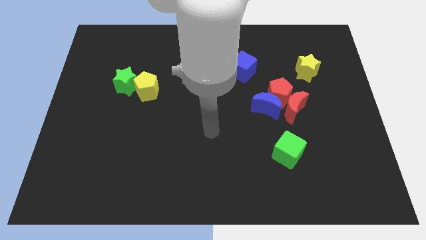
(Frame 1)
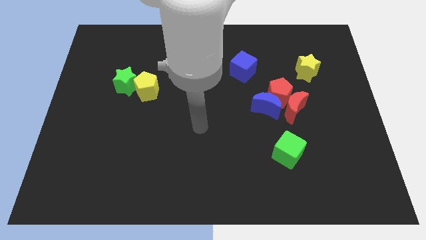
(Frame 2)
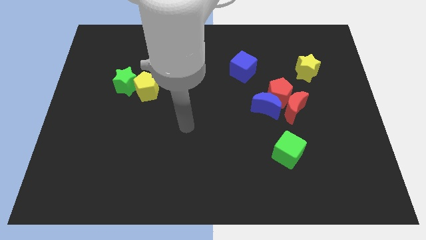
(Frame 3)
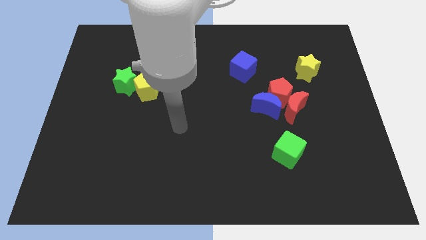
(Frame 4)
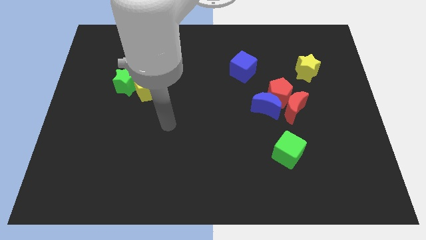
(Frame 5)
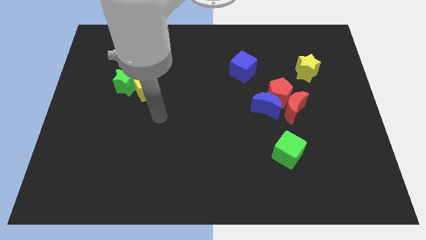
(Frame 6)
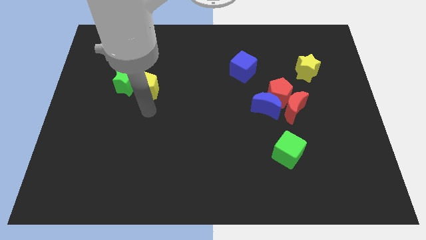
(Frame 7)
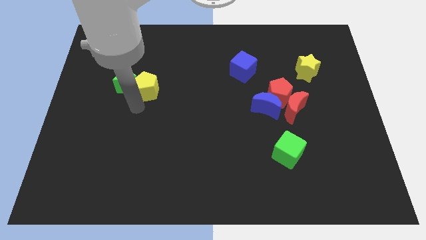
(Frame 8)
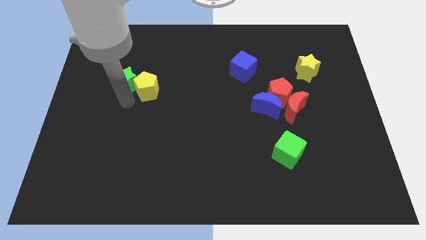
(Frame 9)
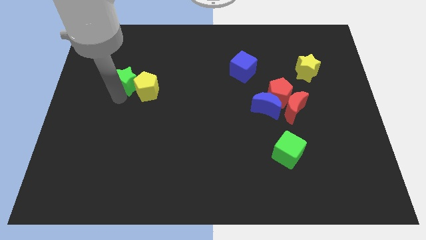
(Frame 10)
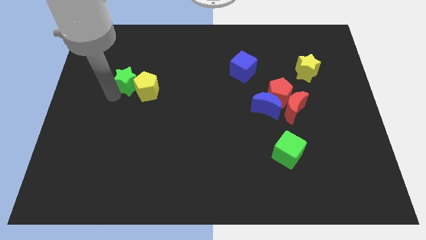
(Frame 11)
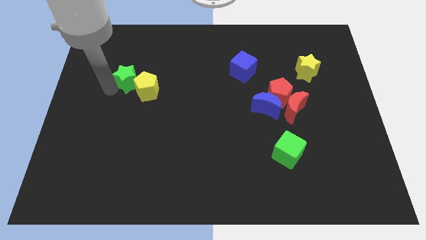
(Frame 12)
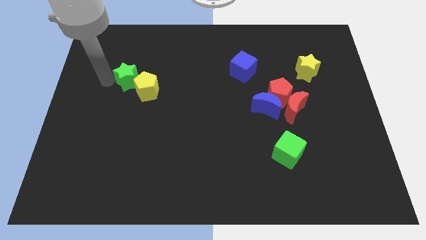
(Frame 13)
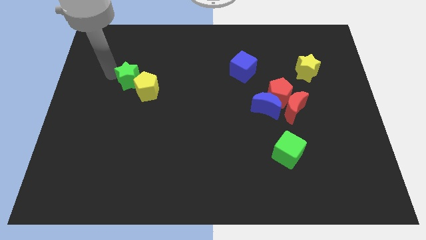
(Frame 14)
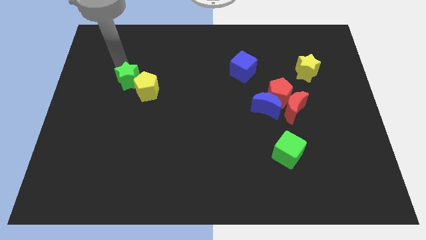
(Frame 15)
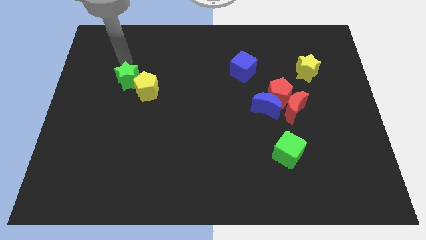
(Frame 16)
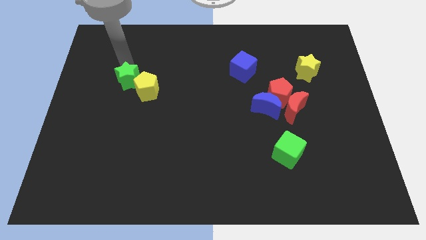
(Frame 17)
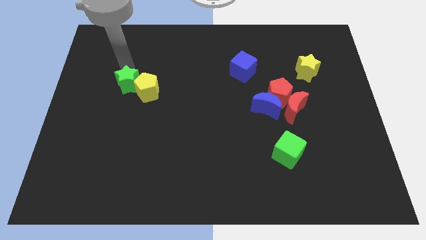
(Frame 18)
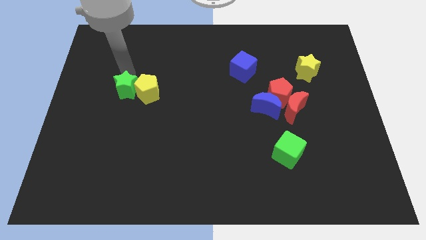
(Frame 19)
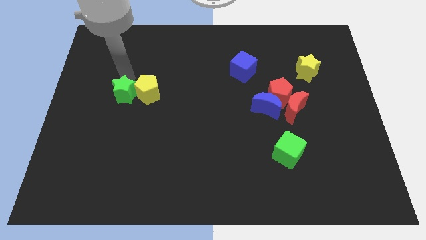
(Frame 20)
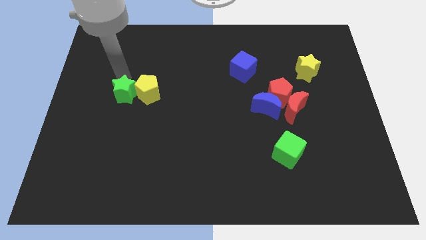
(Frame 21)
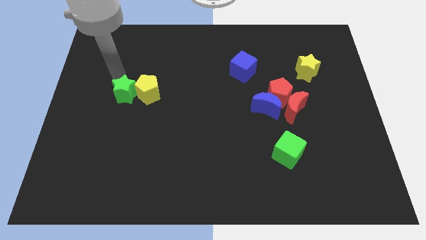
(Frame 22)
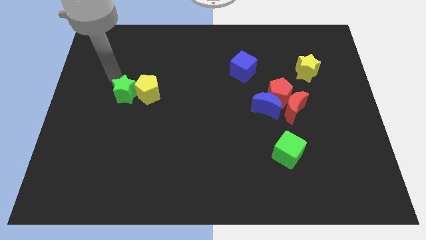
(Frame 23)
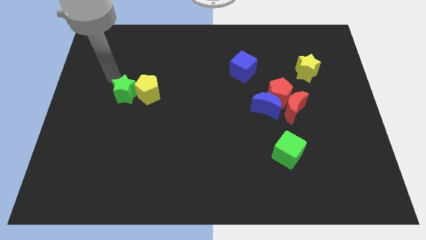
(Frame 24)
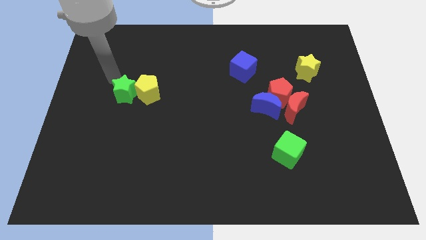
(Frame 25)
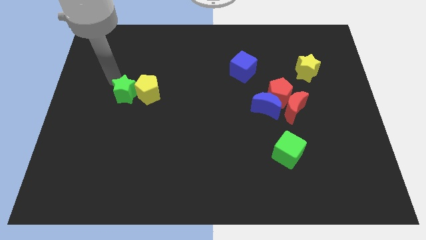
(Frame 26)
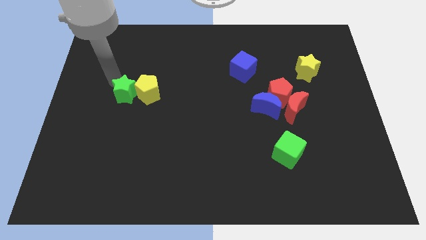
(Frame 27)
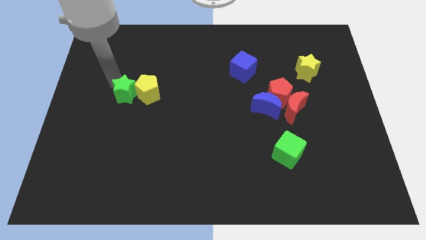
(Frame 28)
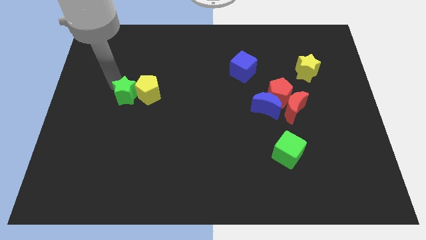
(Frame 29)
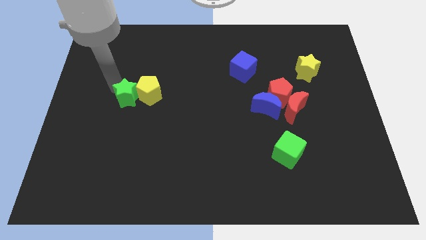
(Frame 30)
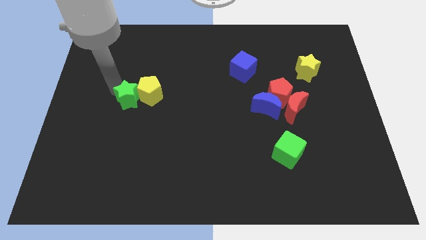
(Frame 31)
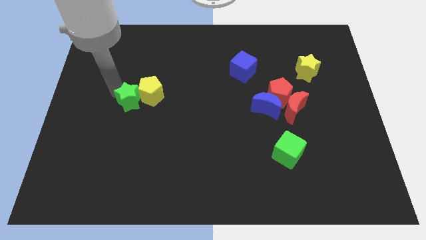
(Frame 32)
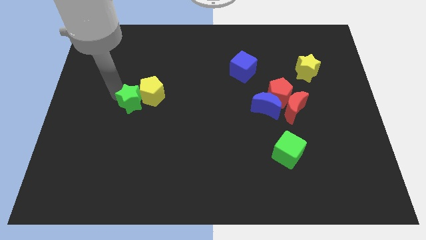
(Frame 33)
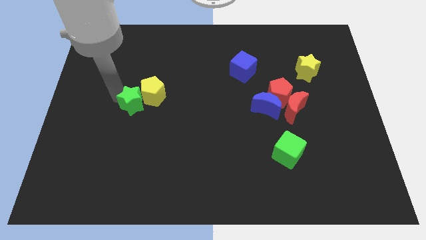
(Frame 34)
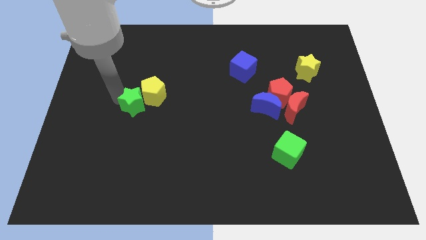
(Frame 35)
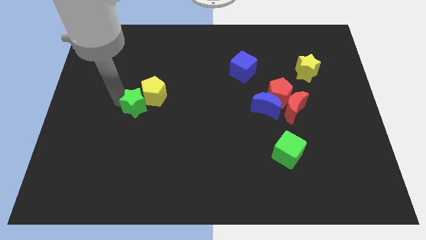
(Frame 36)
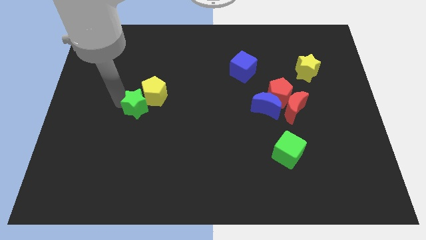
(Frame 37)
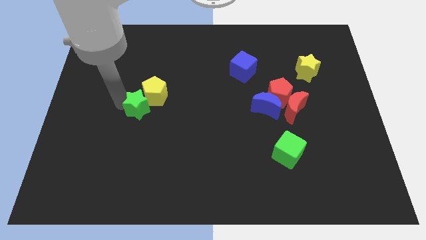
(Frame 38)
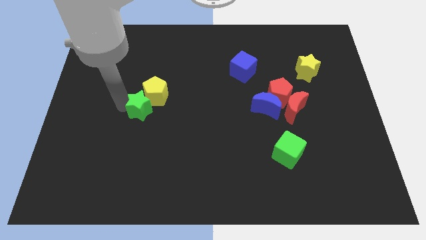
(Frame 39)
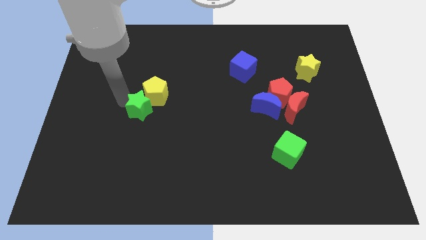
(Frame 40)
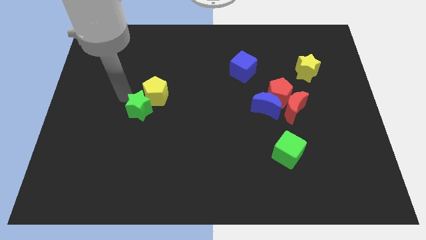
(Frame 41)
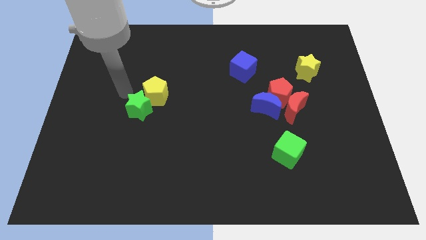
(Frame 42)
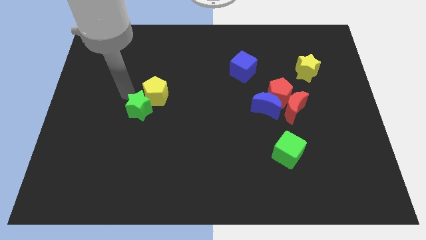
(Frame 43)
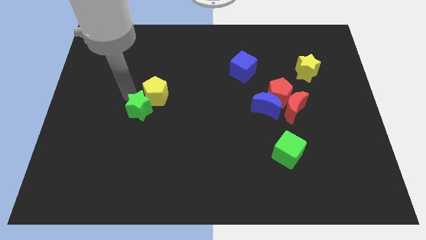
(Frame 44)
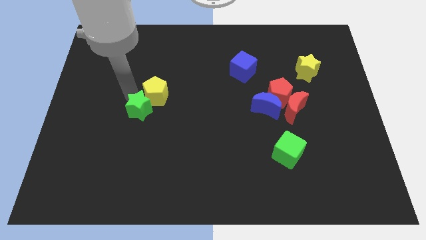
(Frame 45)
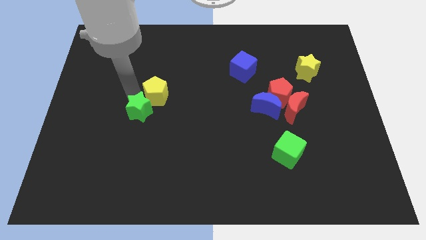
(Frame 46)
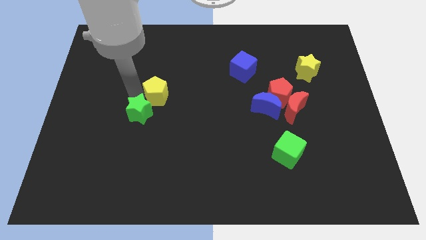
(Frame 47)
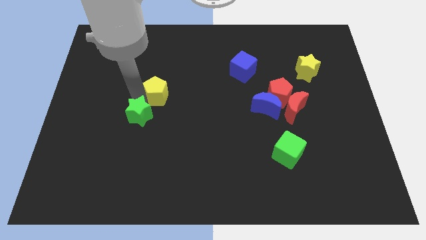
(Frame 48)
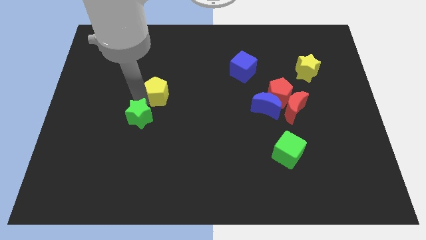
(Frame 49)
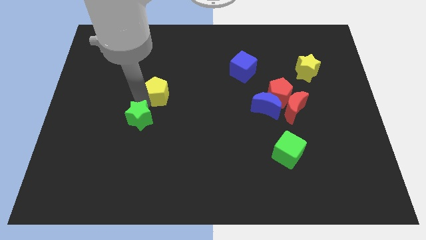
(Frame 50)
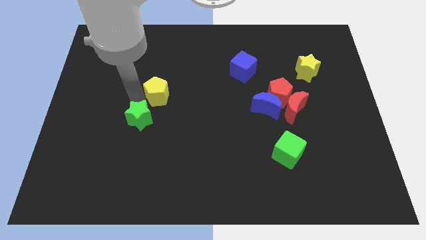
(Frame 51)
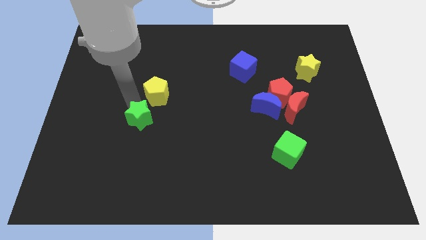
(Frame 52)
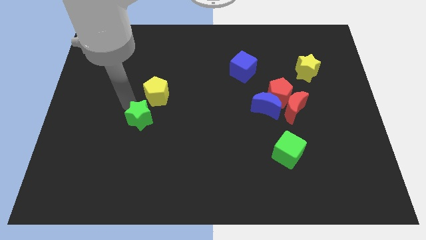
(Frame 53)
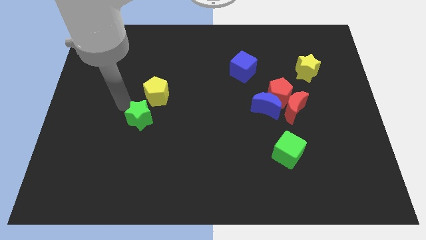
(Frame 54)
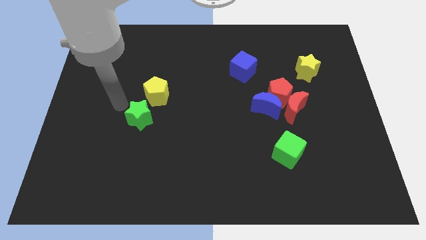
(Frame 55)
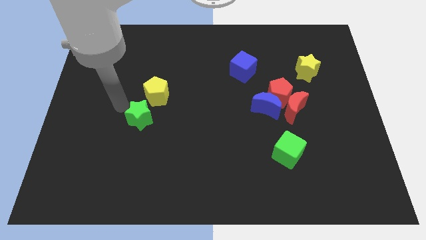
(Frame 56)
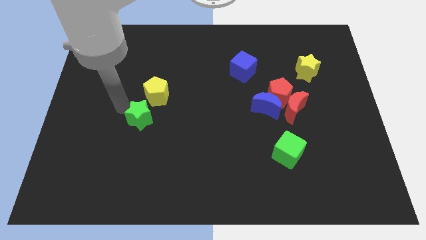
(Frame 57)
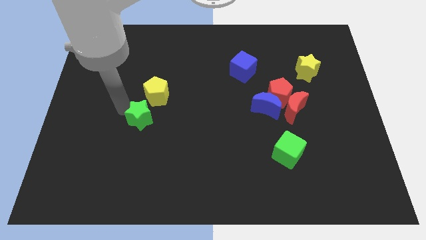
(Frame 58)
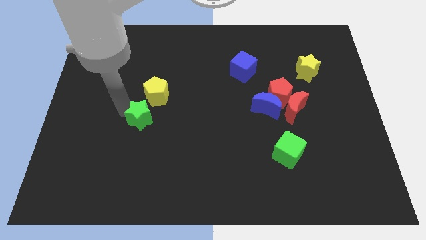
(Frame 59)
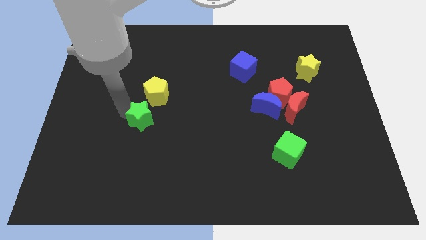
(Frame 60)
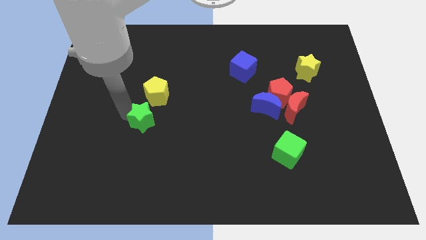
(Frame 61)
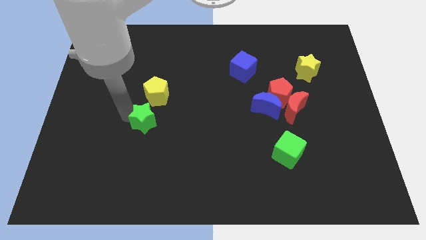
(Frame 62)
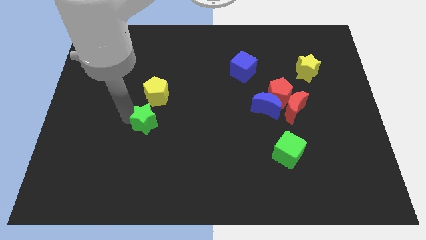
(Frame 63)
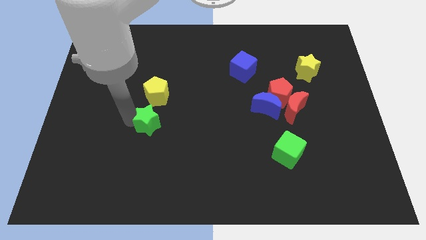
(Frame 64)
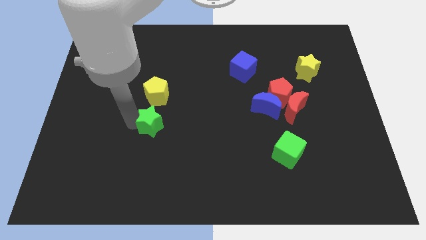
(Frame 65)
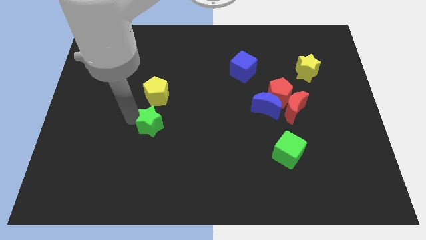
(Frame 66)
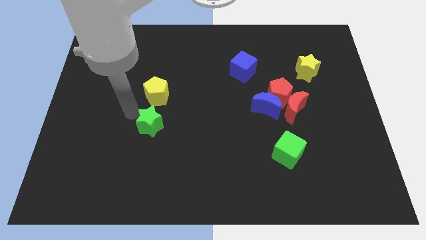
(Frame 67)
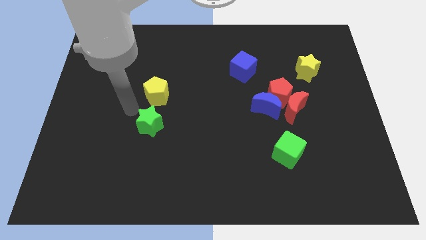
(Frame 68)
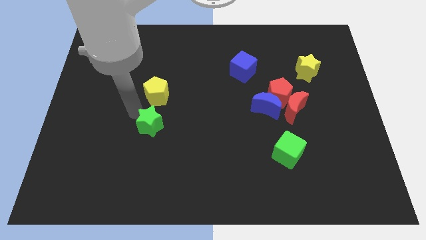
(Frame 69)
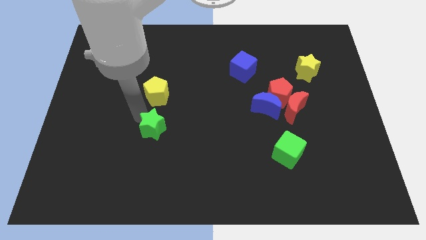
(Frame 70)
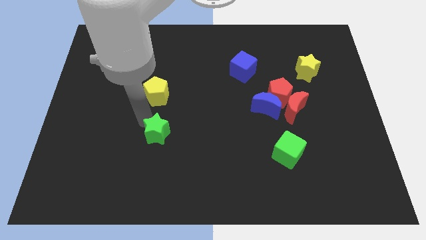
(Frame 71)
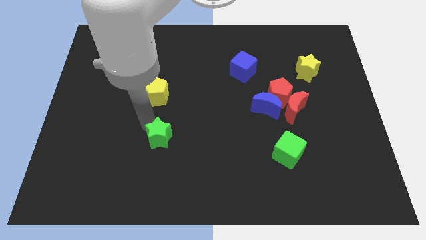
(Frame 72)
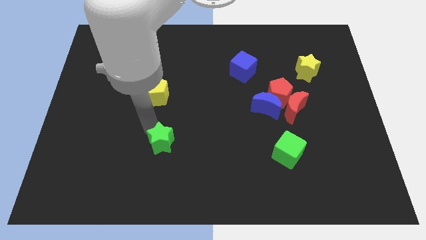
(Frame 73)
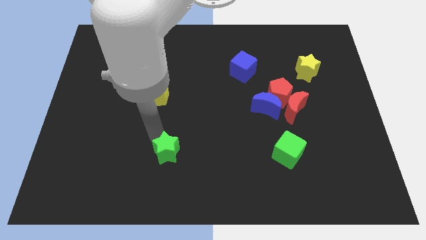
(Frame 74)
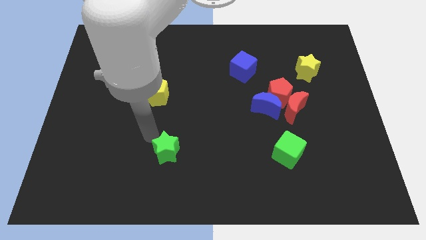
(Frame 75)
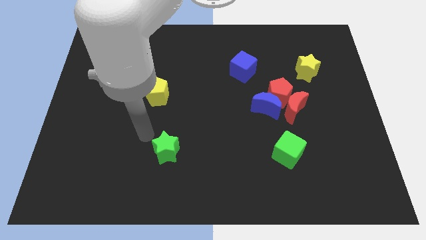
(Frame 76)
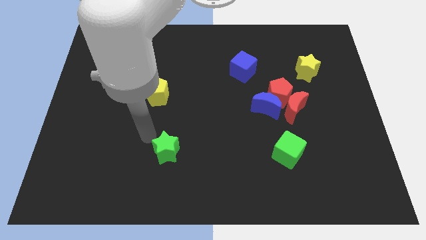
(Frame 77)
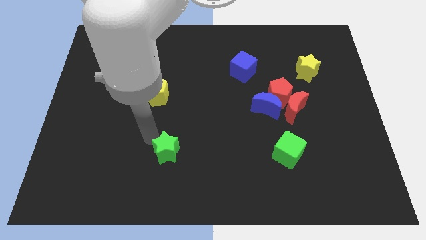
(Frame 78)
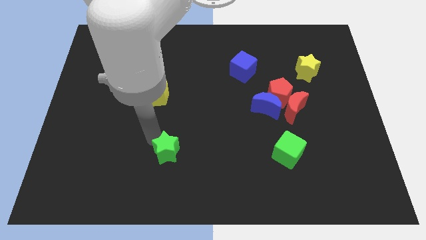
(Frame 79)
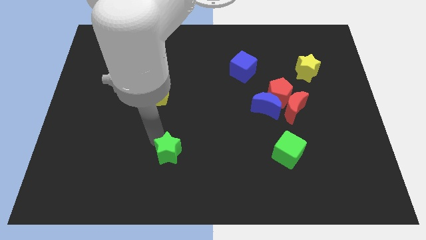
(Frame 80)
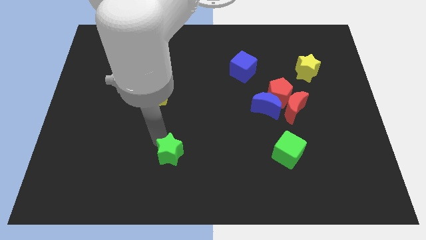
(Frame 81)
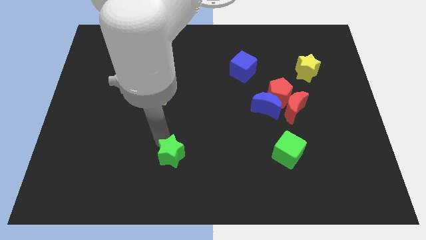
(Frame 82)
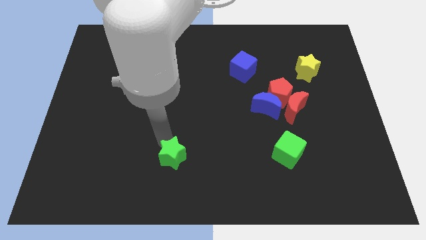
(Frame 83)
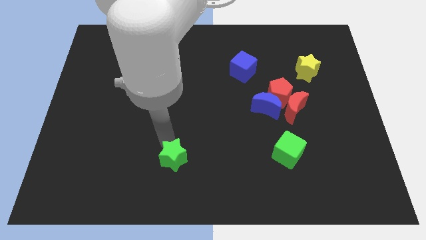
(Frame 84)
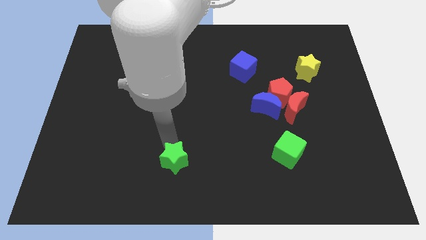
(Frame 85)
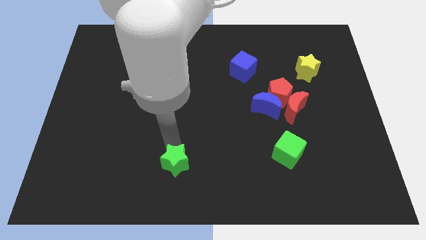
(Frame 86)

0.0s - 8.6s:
push the green star to the bottom
